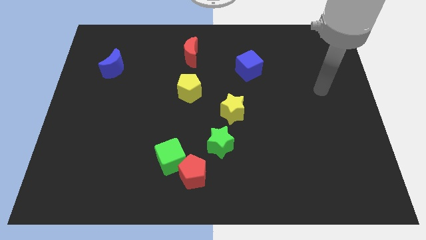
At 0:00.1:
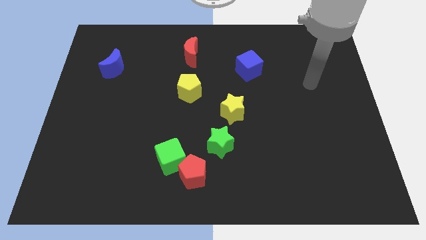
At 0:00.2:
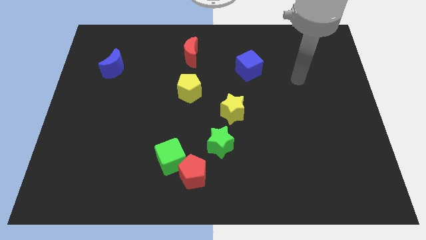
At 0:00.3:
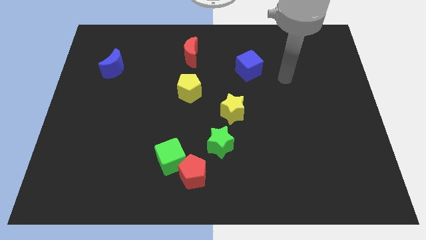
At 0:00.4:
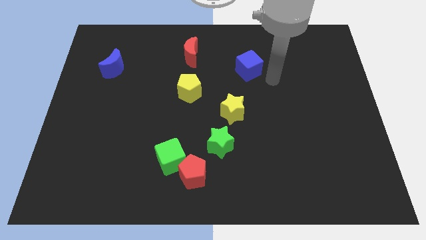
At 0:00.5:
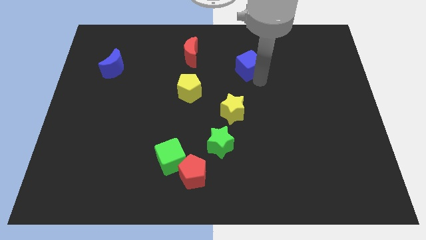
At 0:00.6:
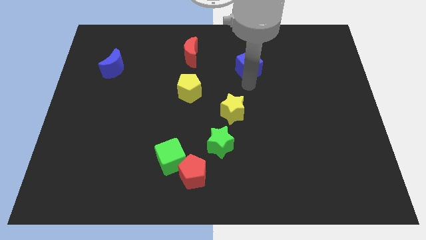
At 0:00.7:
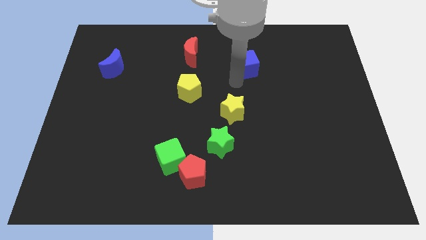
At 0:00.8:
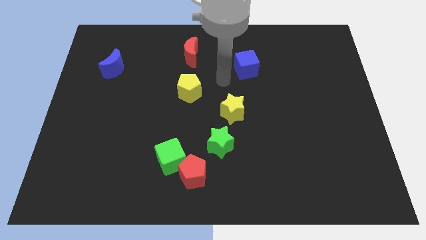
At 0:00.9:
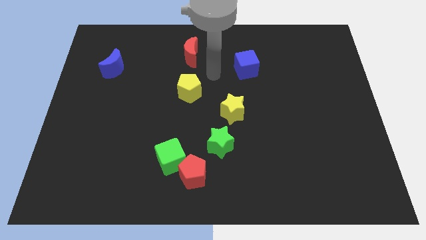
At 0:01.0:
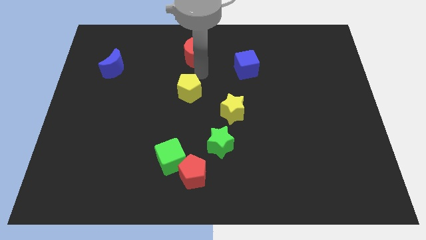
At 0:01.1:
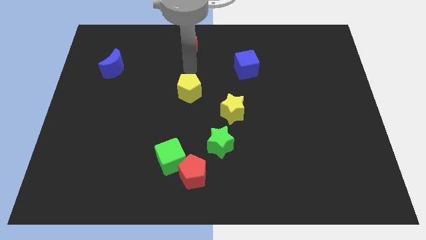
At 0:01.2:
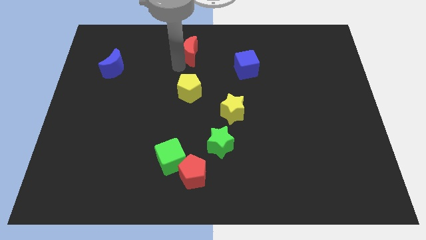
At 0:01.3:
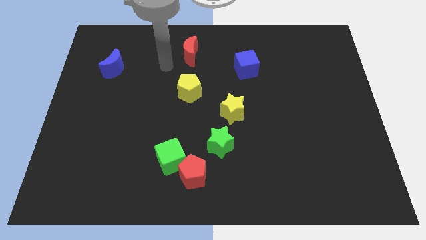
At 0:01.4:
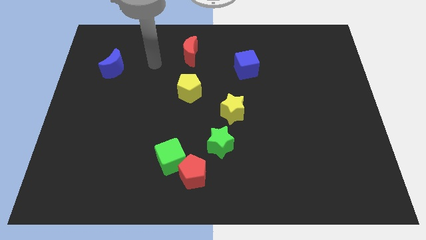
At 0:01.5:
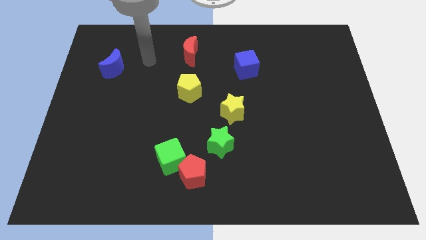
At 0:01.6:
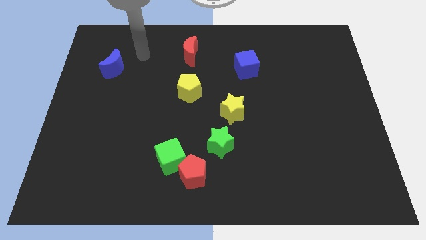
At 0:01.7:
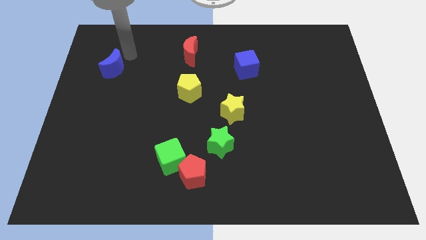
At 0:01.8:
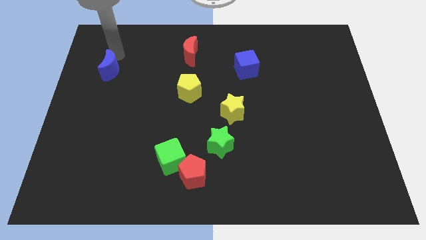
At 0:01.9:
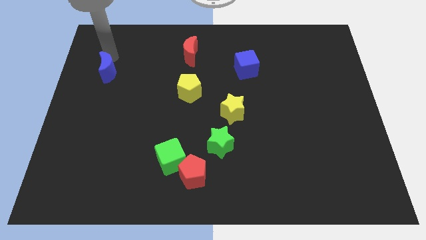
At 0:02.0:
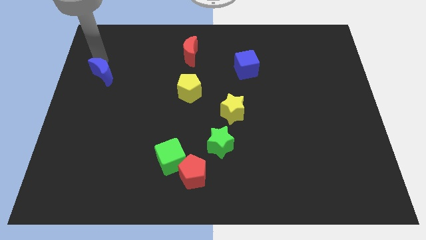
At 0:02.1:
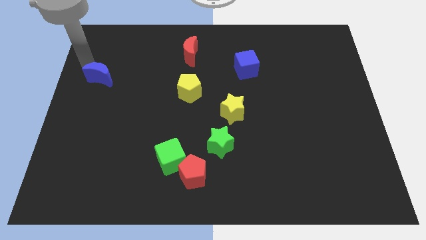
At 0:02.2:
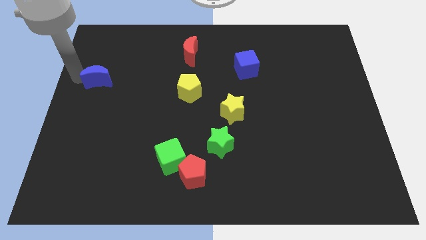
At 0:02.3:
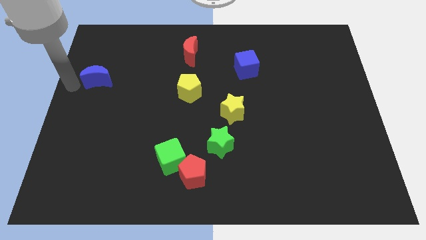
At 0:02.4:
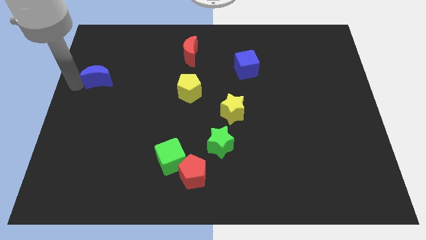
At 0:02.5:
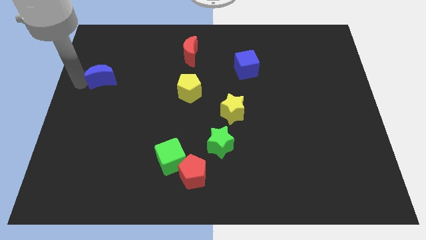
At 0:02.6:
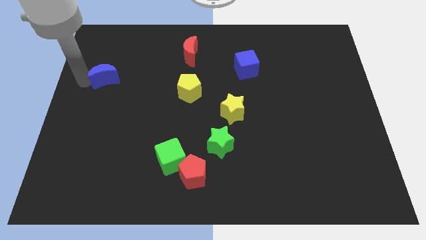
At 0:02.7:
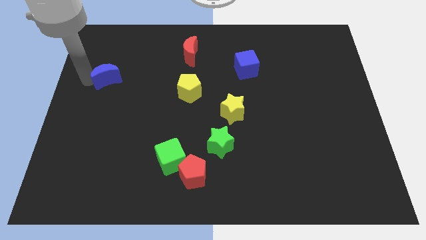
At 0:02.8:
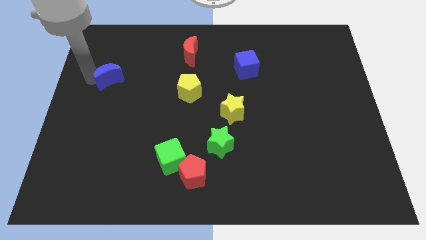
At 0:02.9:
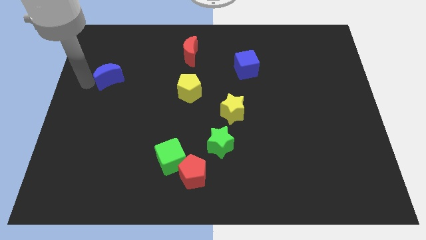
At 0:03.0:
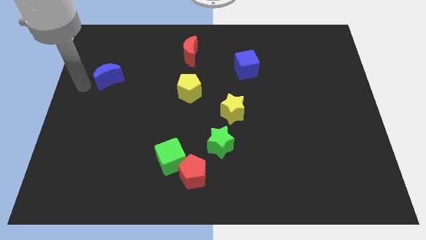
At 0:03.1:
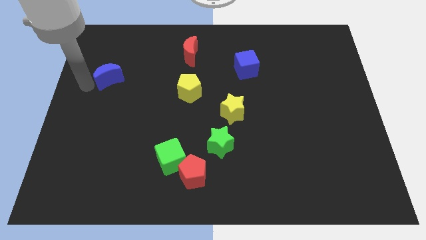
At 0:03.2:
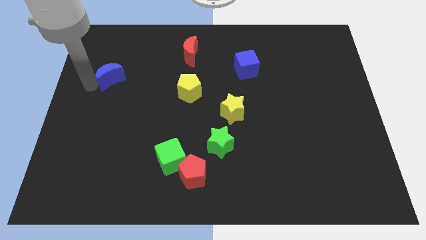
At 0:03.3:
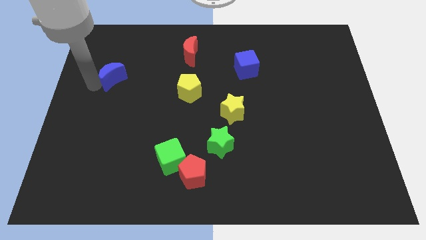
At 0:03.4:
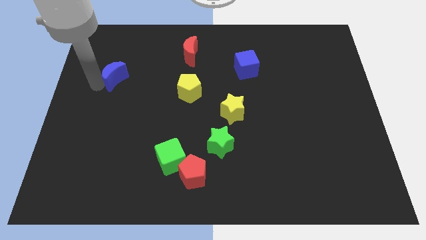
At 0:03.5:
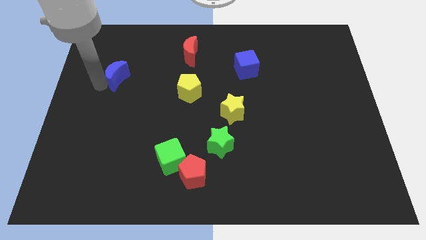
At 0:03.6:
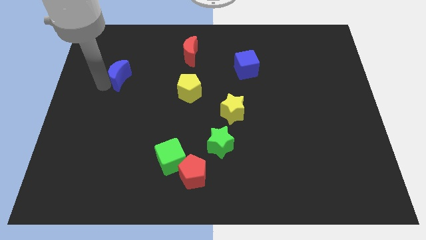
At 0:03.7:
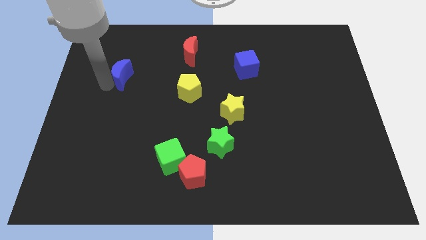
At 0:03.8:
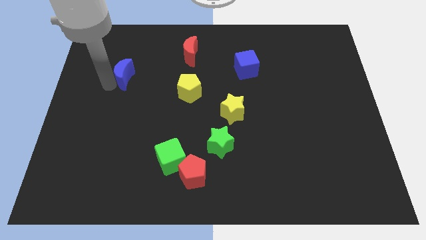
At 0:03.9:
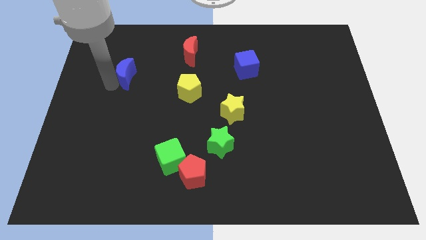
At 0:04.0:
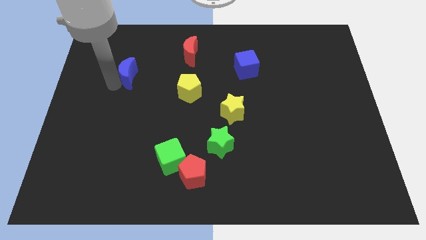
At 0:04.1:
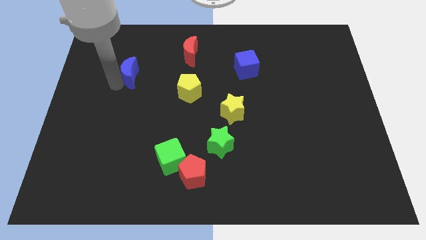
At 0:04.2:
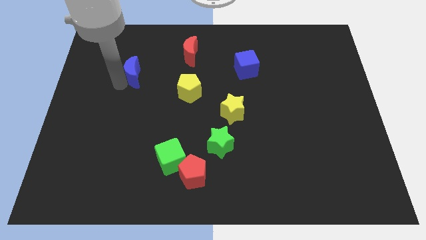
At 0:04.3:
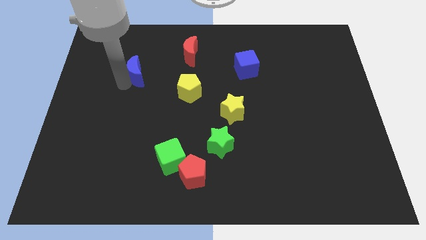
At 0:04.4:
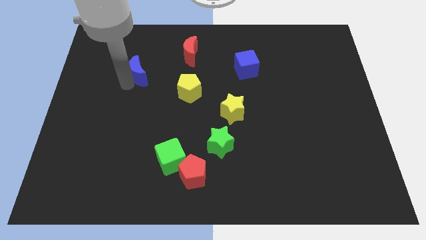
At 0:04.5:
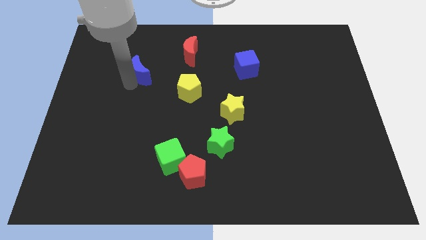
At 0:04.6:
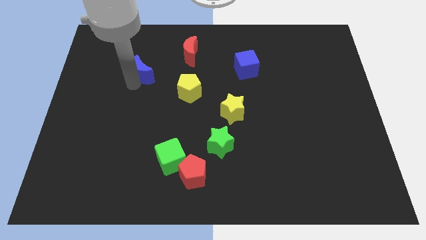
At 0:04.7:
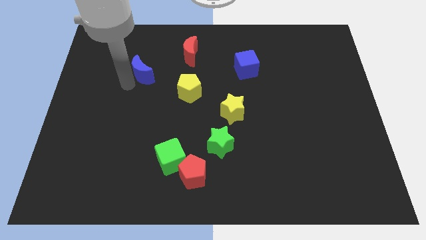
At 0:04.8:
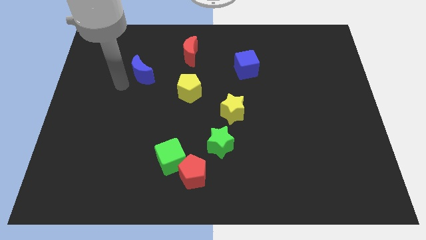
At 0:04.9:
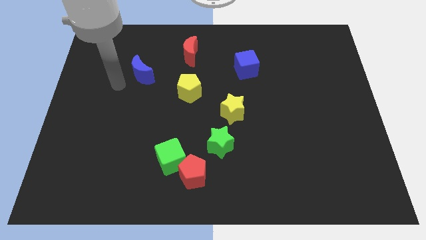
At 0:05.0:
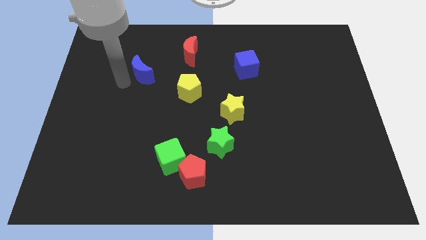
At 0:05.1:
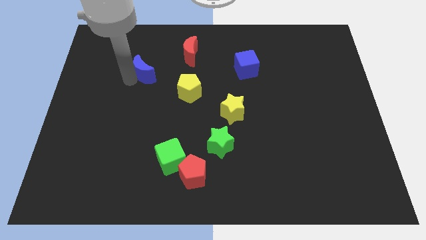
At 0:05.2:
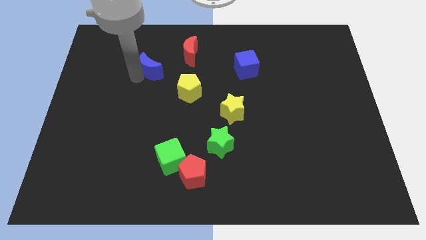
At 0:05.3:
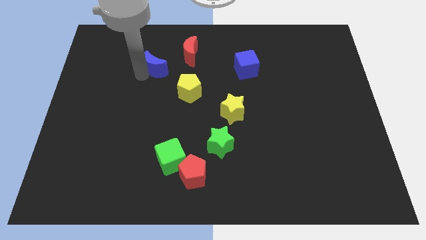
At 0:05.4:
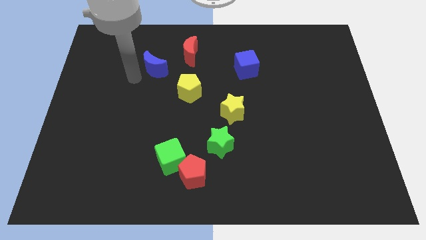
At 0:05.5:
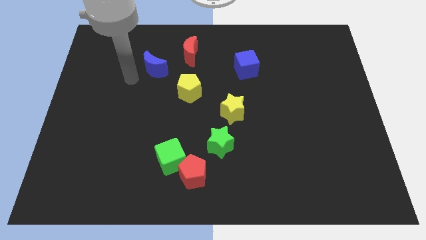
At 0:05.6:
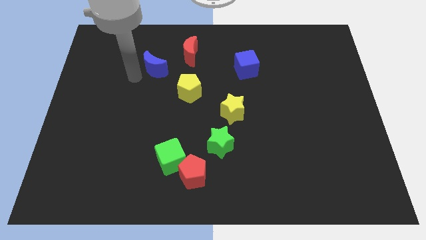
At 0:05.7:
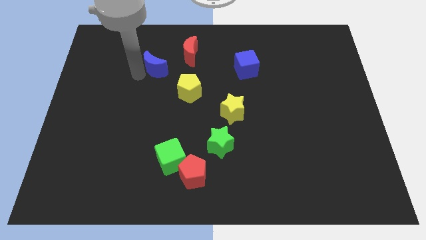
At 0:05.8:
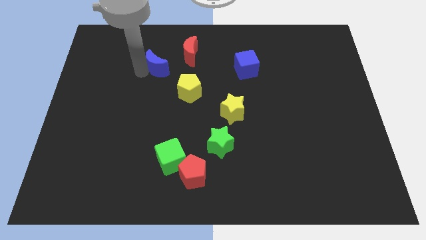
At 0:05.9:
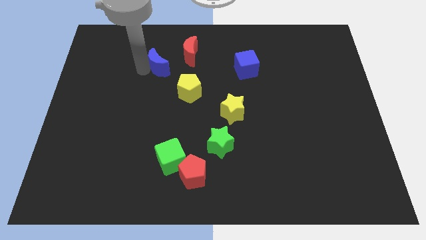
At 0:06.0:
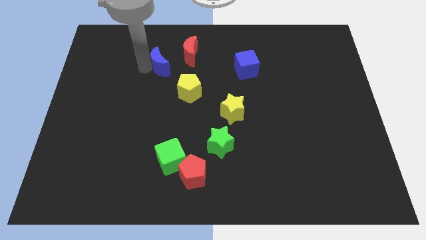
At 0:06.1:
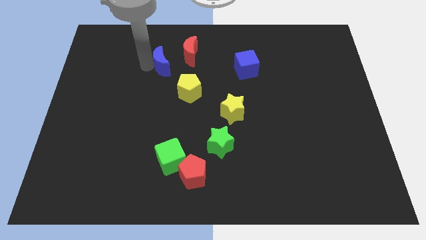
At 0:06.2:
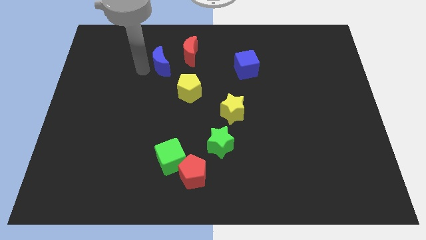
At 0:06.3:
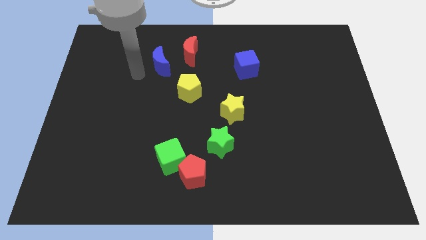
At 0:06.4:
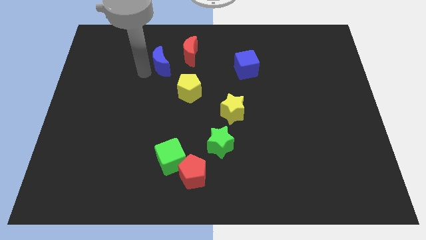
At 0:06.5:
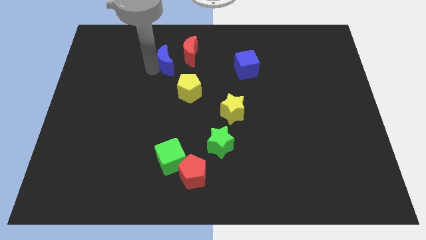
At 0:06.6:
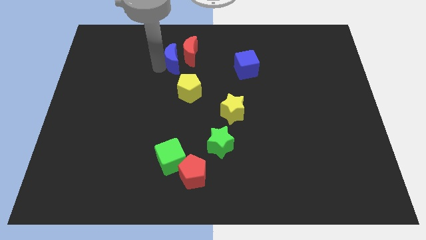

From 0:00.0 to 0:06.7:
slide the blue moon next to the red moon
